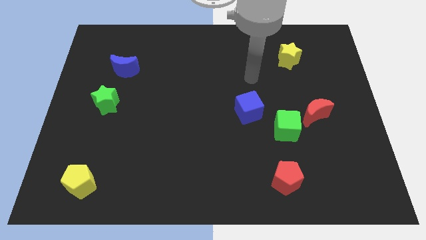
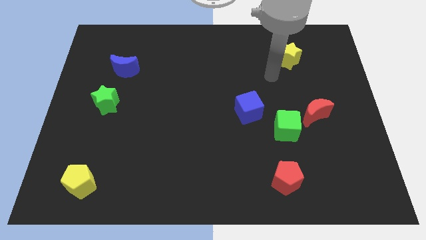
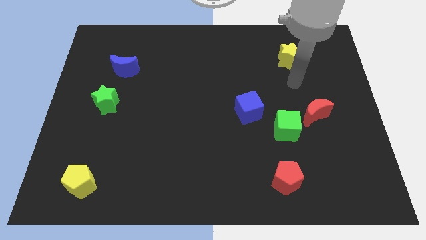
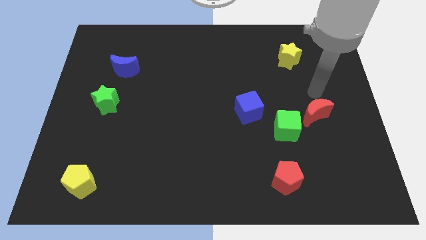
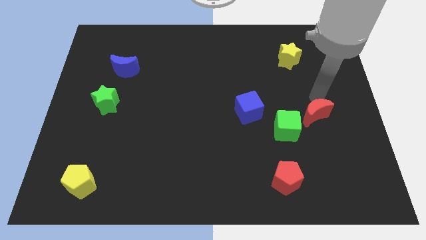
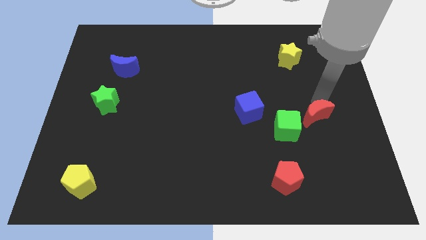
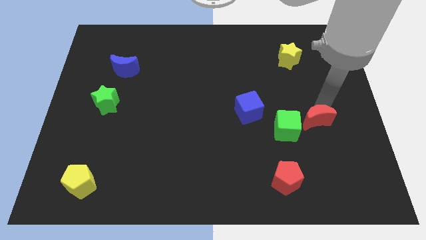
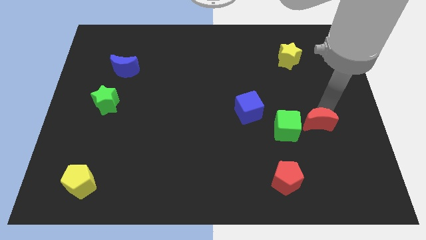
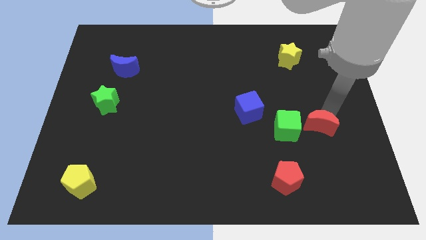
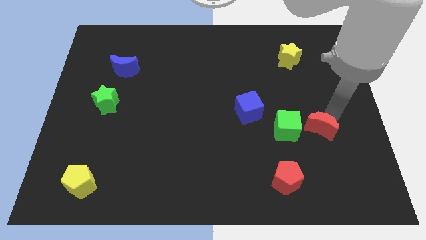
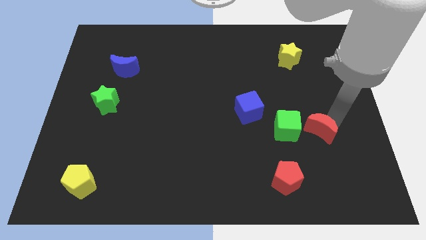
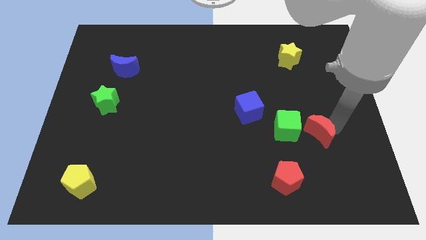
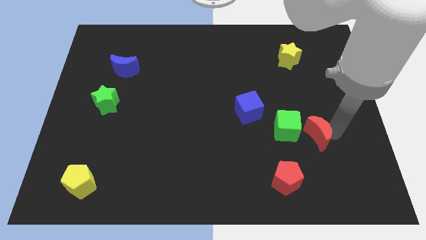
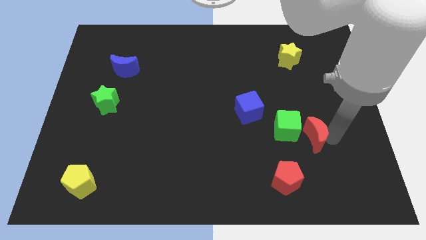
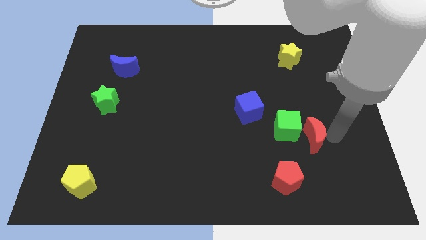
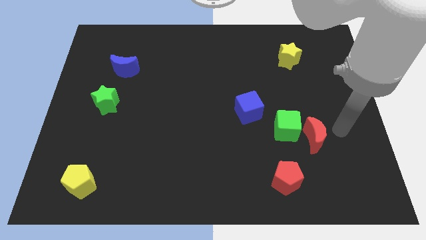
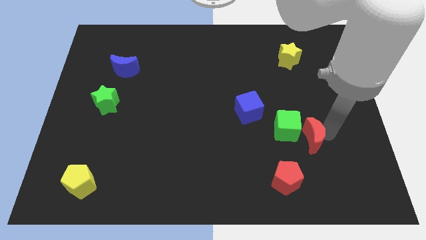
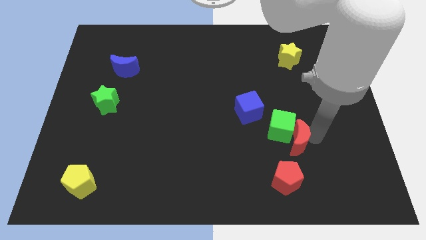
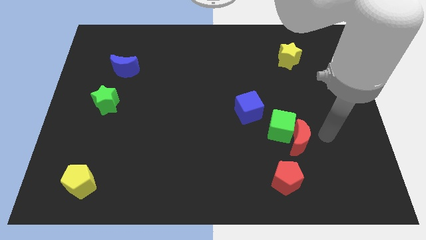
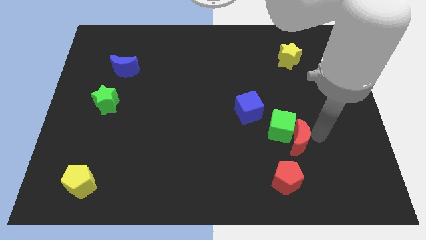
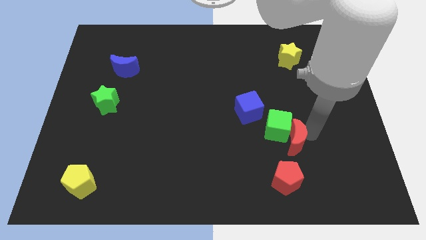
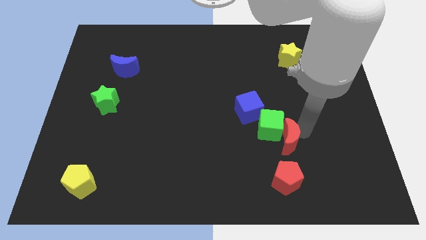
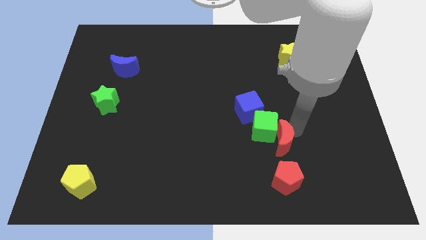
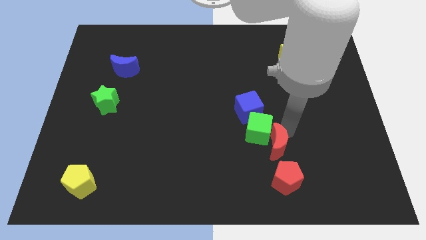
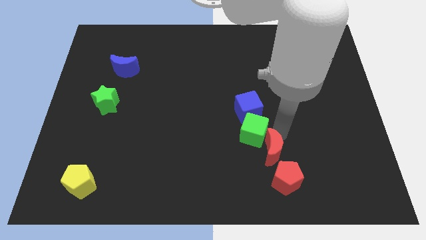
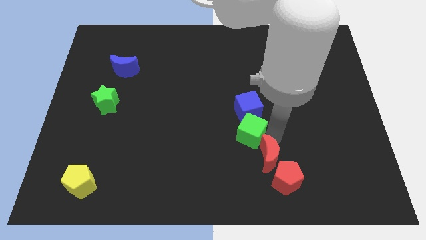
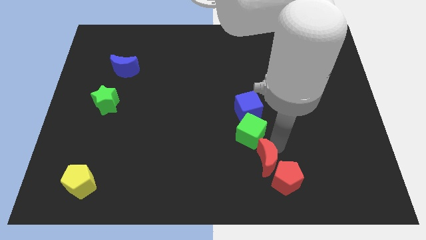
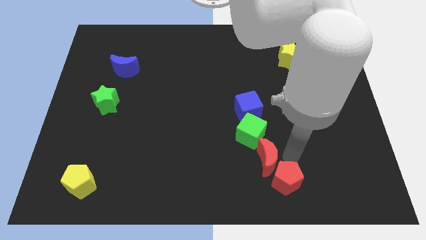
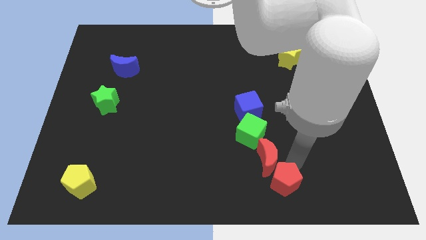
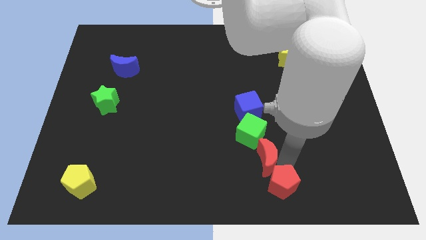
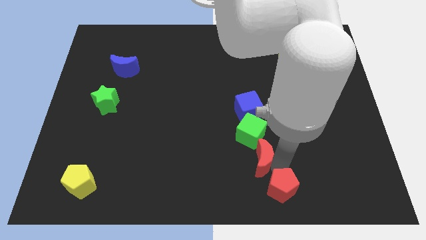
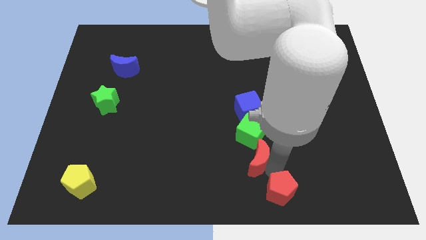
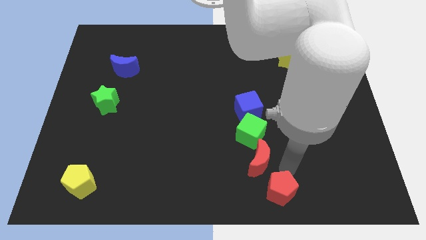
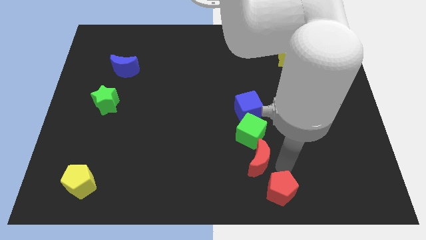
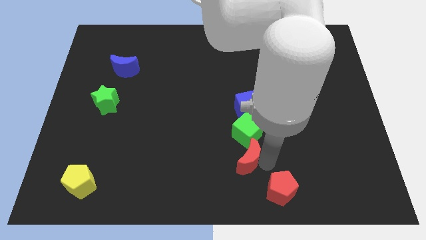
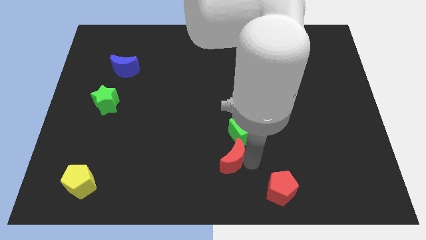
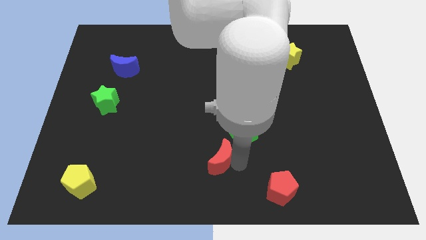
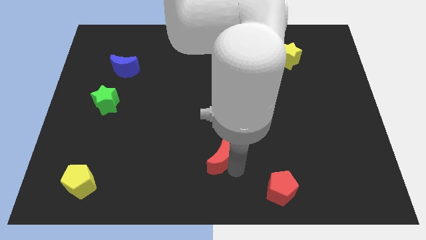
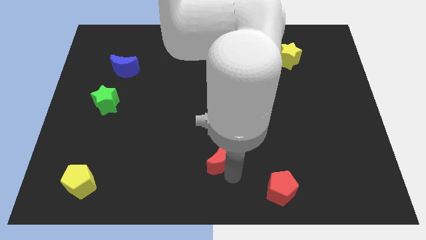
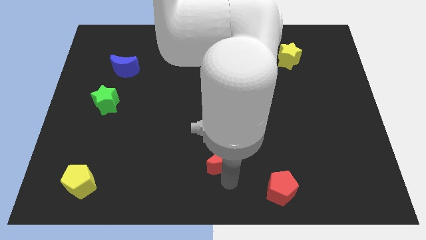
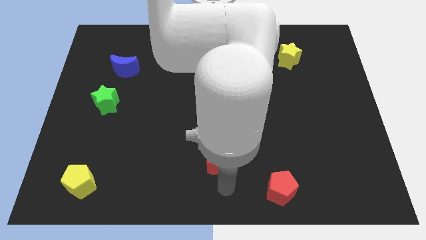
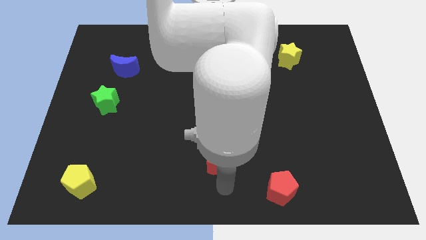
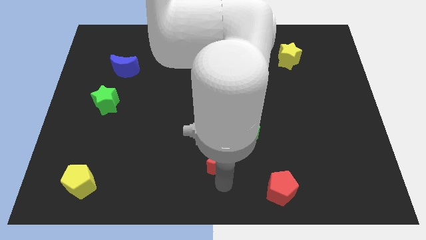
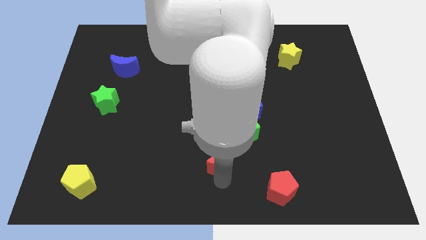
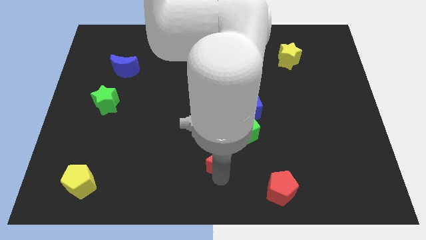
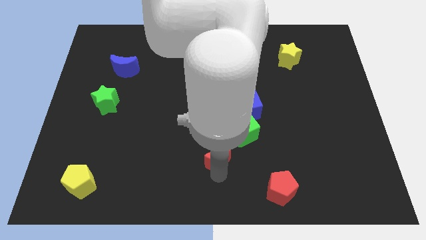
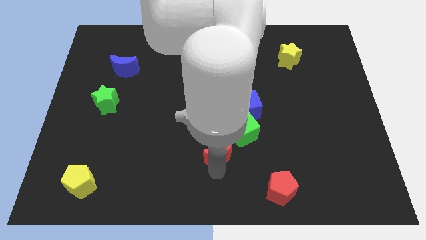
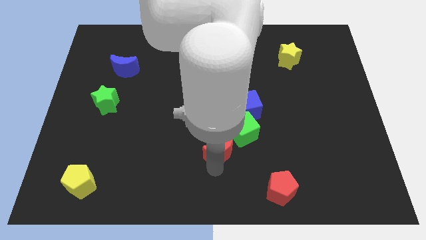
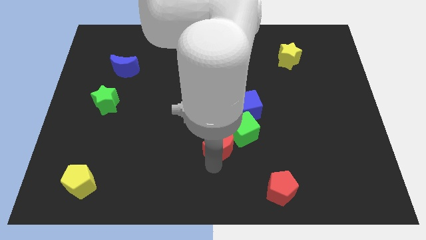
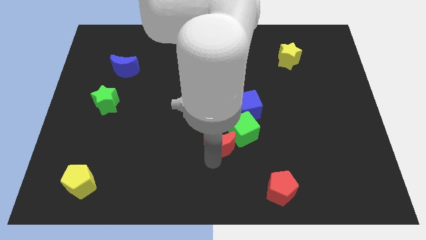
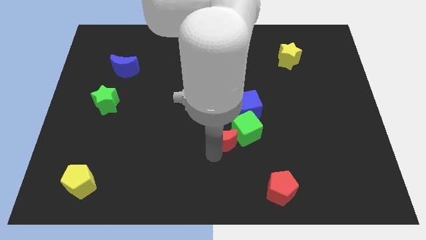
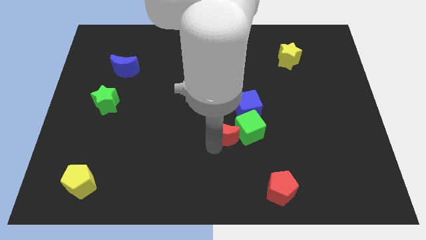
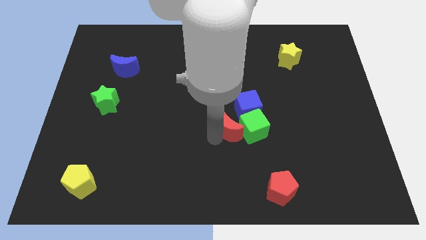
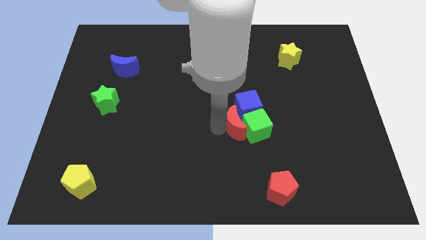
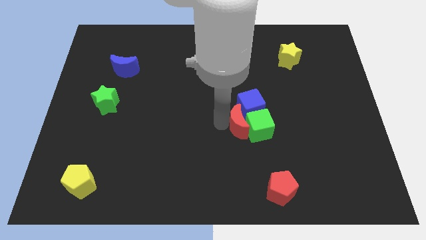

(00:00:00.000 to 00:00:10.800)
move the red moon diagonally down and to the left of the green cube

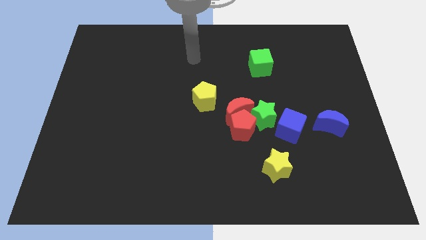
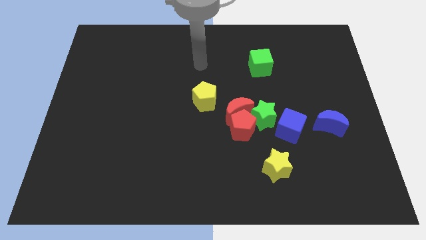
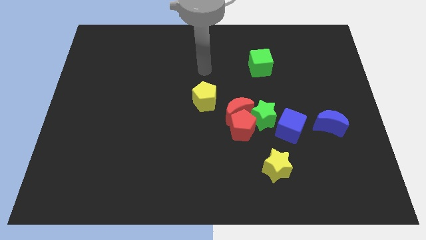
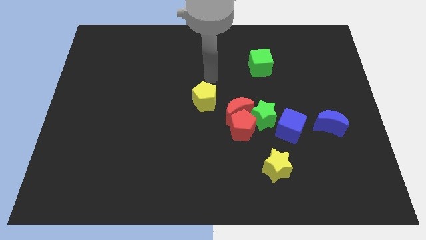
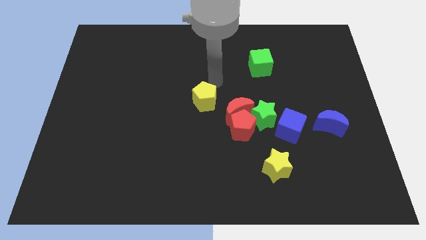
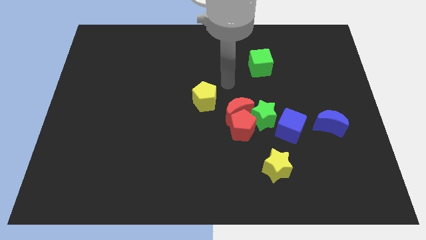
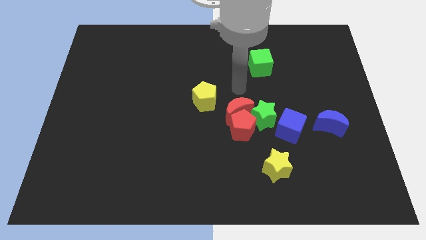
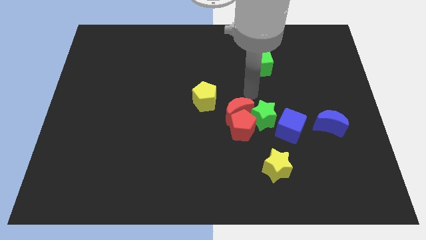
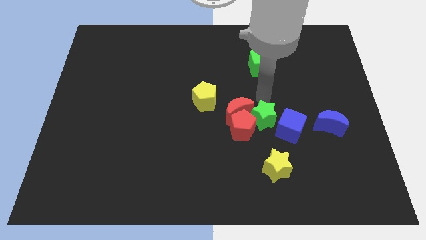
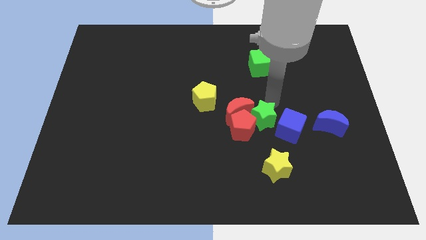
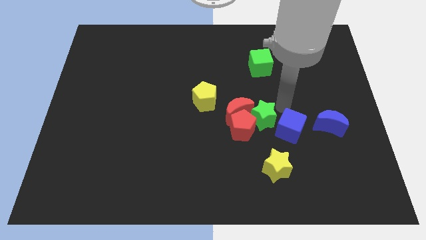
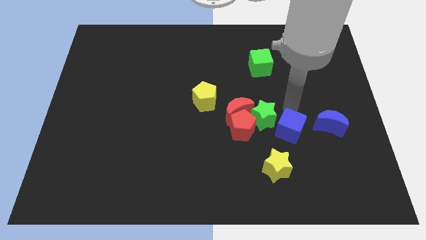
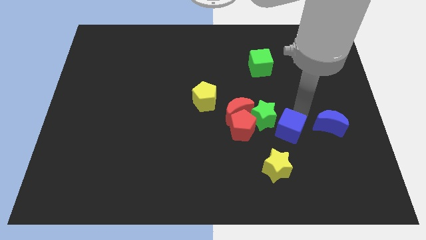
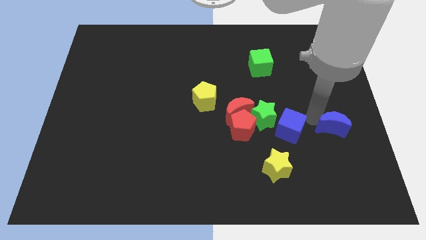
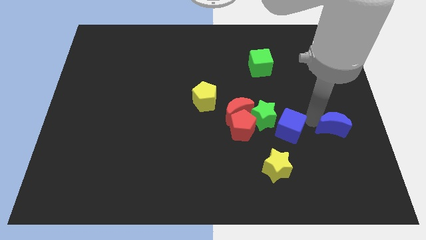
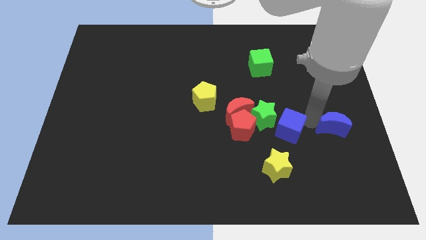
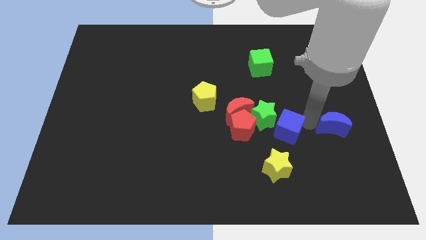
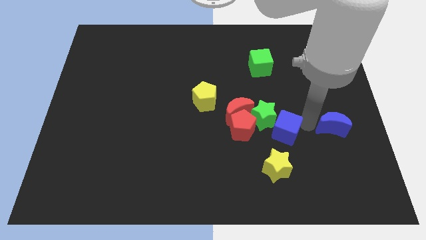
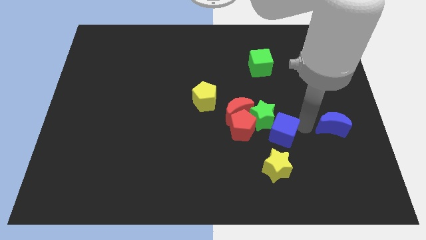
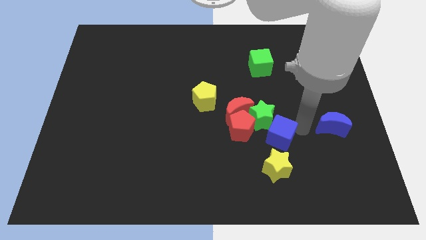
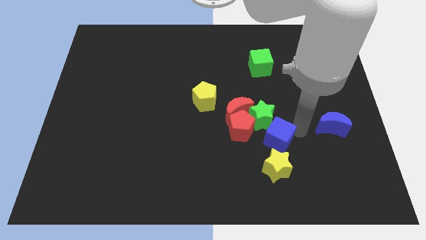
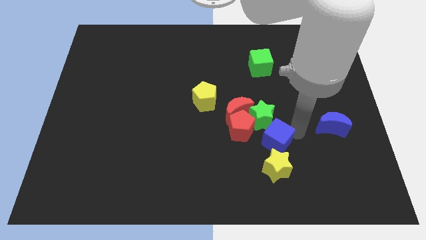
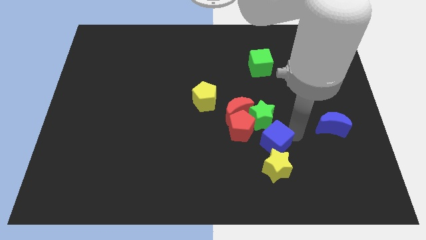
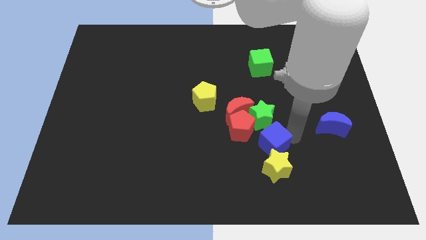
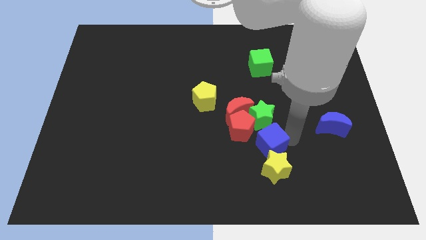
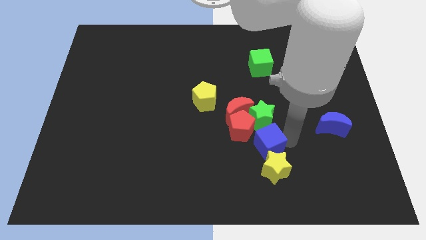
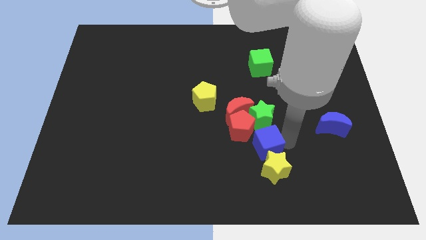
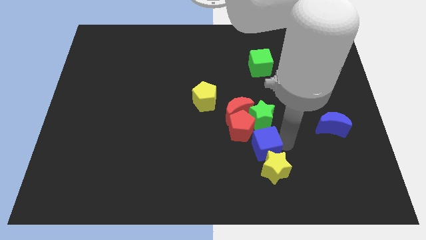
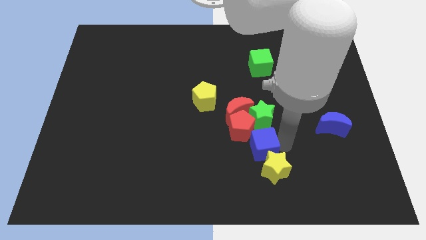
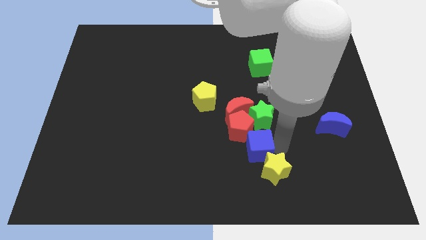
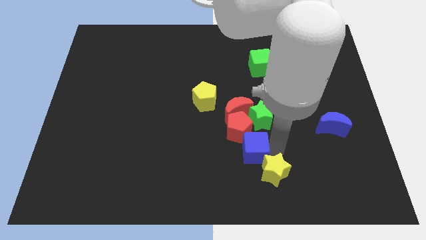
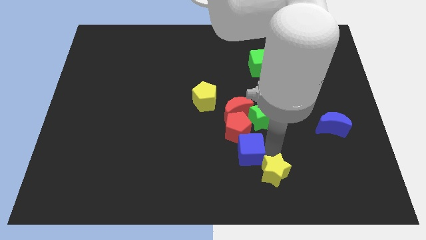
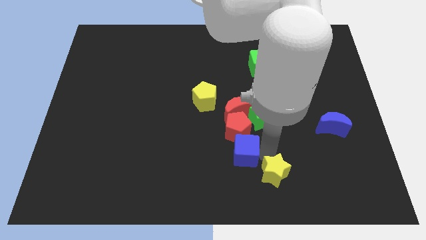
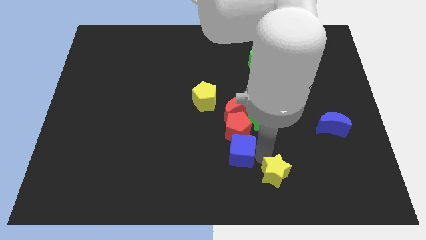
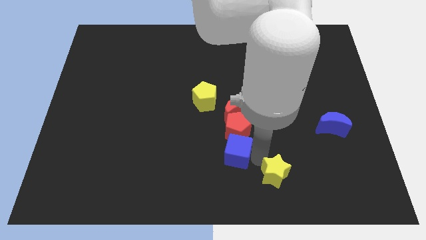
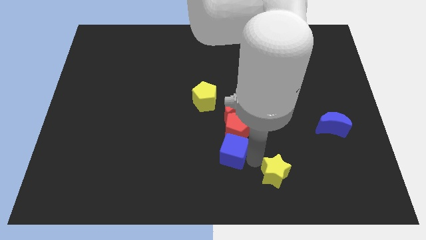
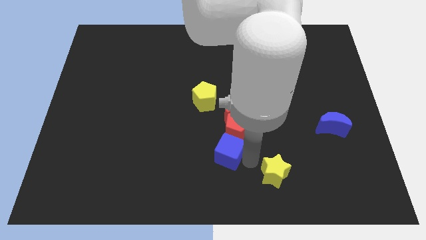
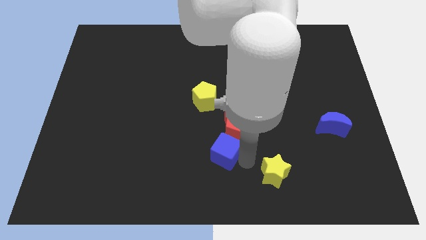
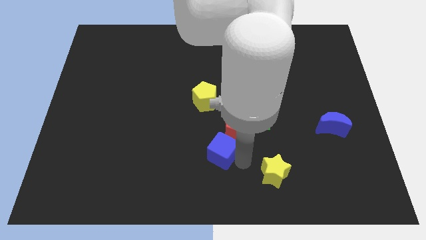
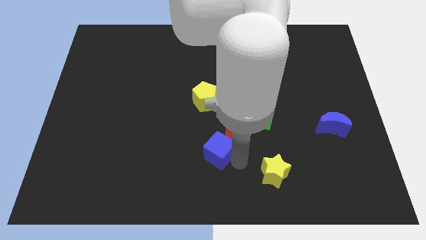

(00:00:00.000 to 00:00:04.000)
move the blue cube below the yellow pentagon
